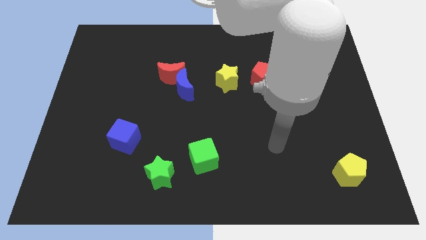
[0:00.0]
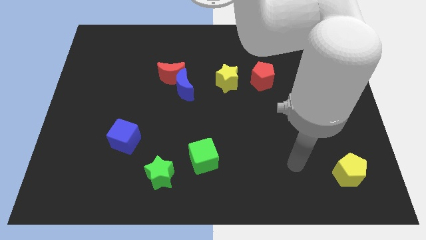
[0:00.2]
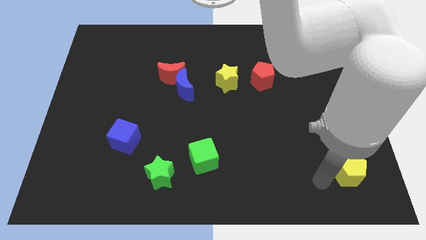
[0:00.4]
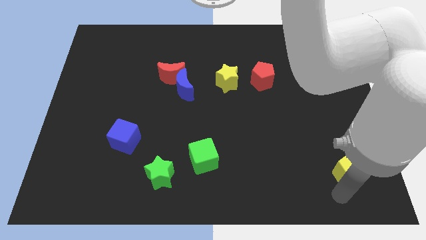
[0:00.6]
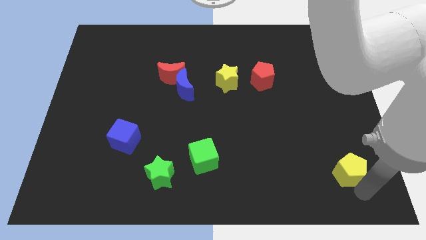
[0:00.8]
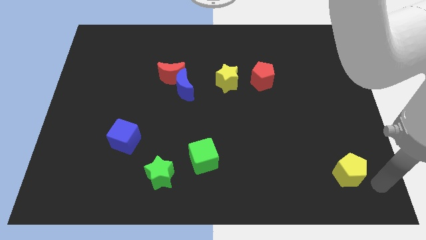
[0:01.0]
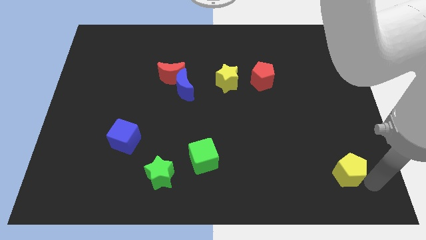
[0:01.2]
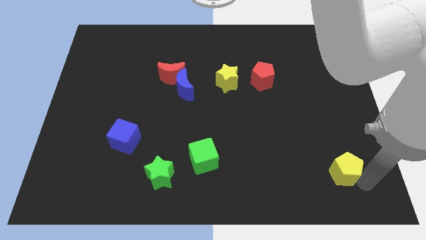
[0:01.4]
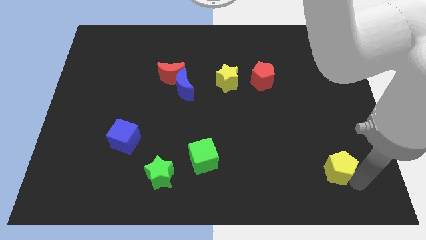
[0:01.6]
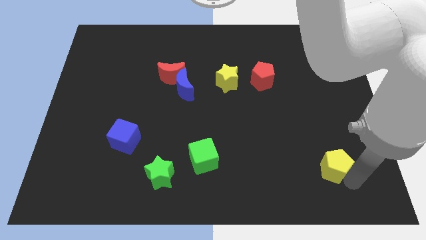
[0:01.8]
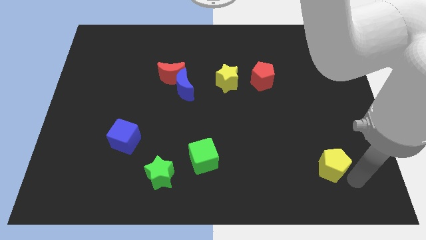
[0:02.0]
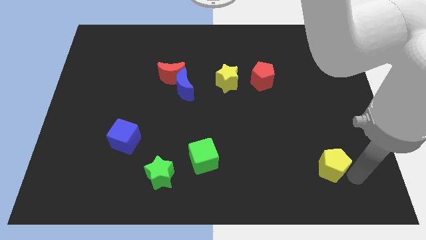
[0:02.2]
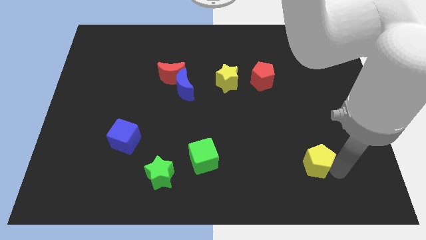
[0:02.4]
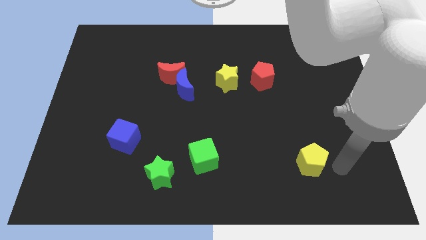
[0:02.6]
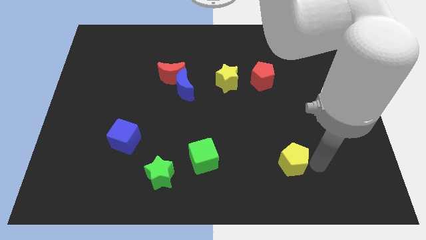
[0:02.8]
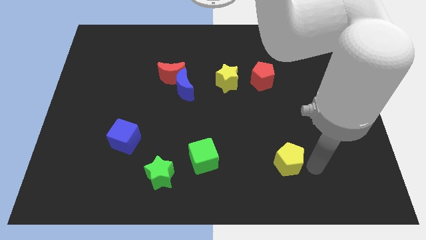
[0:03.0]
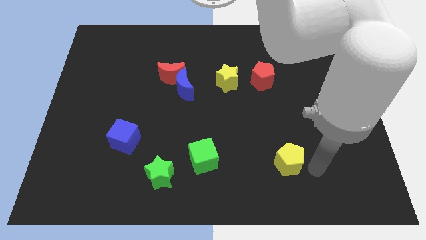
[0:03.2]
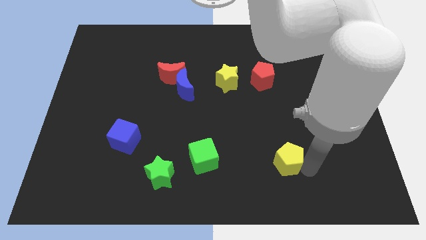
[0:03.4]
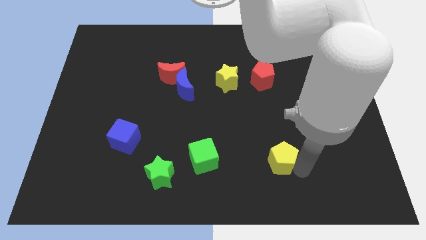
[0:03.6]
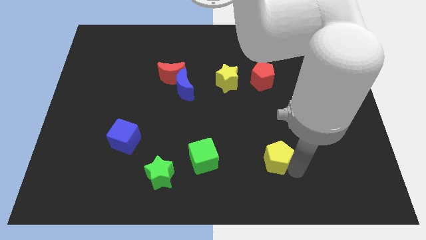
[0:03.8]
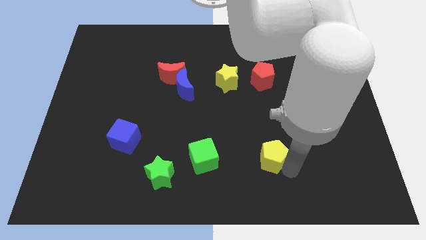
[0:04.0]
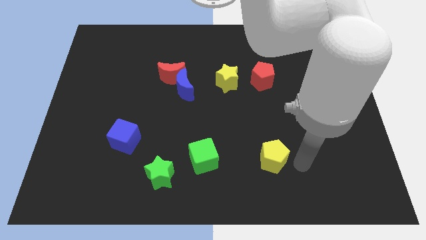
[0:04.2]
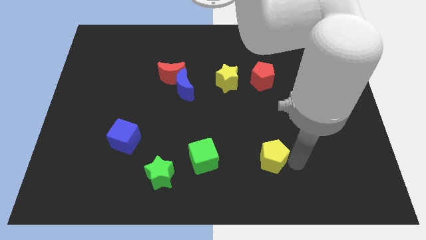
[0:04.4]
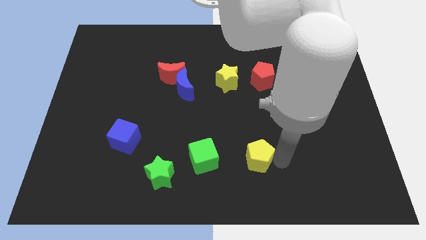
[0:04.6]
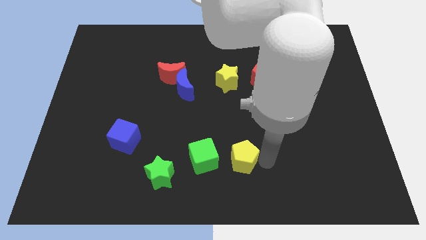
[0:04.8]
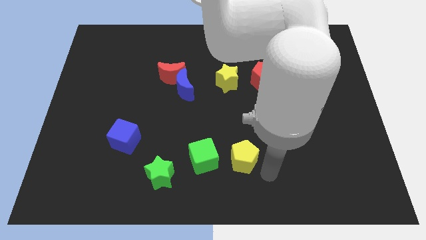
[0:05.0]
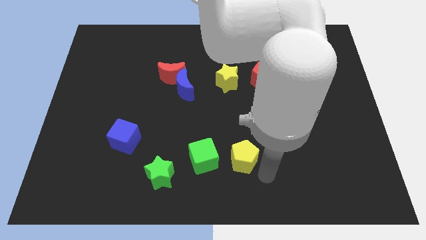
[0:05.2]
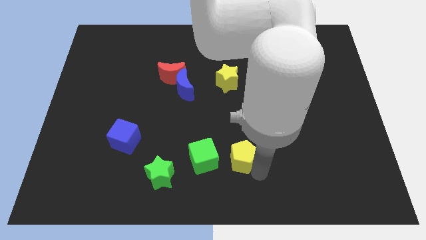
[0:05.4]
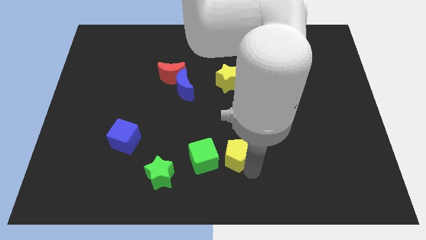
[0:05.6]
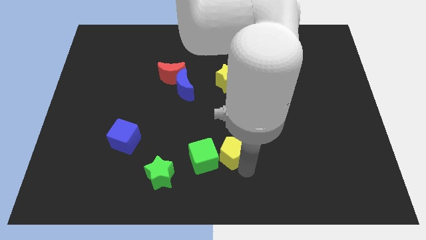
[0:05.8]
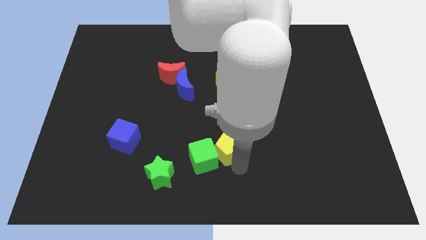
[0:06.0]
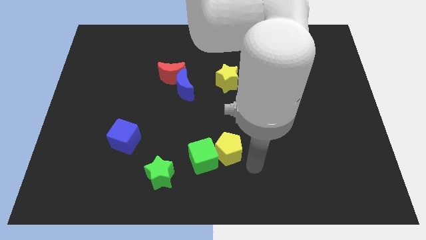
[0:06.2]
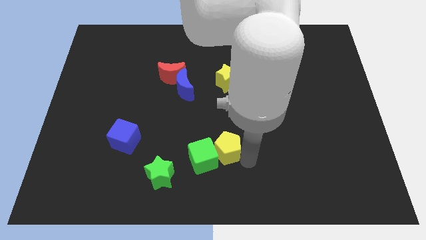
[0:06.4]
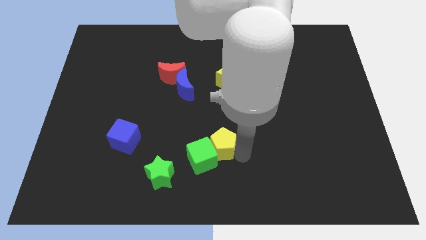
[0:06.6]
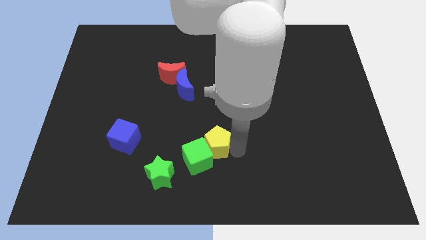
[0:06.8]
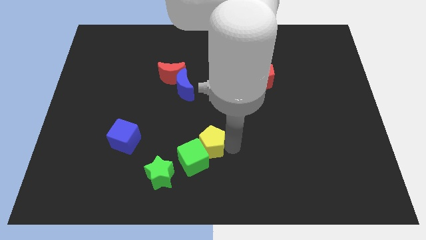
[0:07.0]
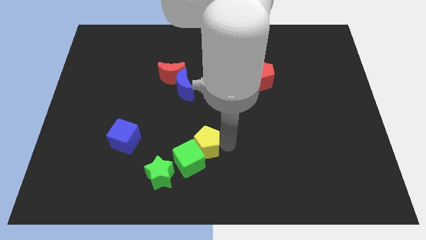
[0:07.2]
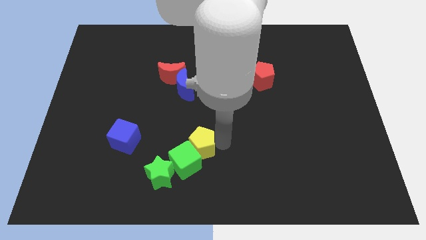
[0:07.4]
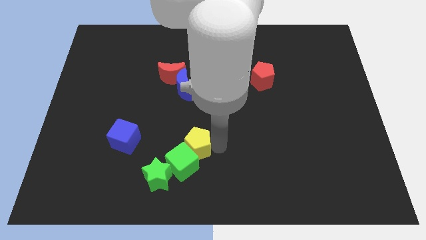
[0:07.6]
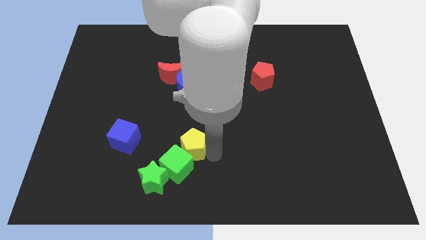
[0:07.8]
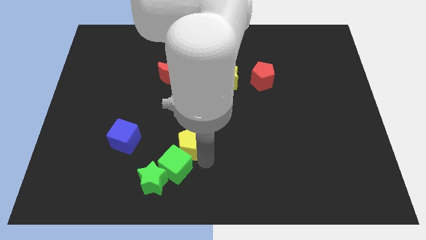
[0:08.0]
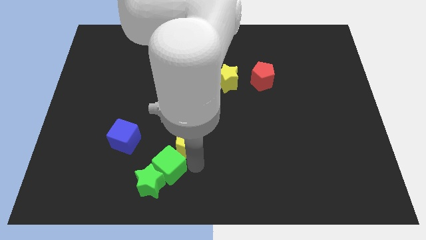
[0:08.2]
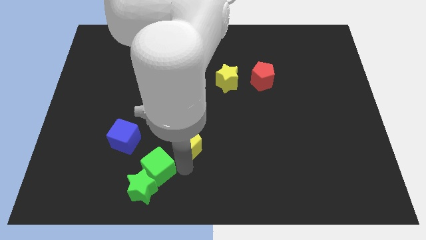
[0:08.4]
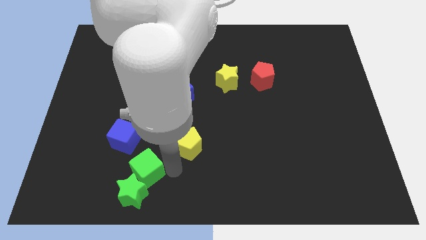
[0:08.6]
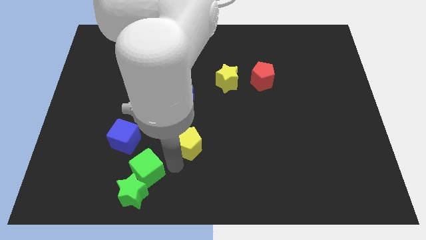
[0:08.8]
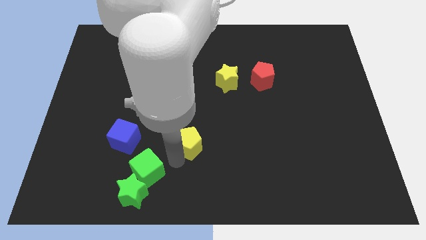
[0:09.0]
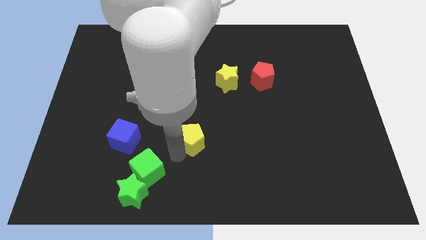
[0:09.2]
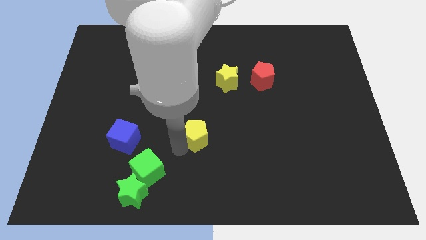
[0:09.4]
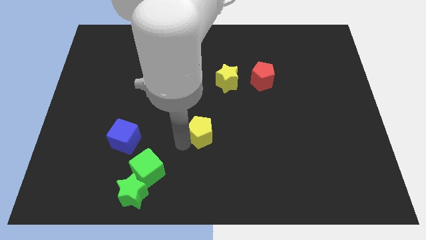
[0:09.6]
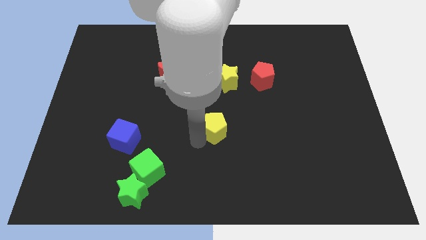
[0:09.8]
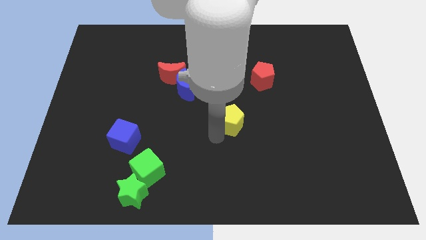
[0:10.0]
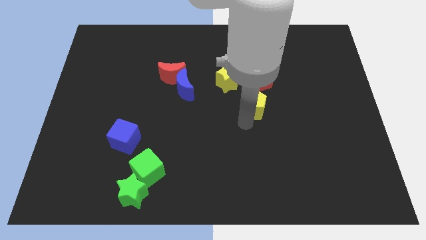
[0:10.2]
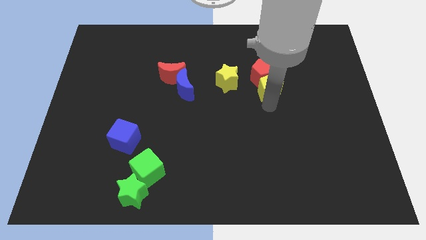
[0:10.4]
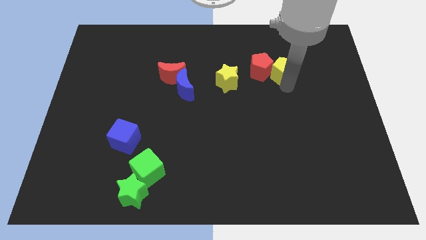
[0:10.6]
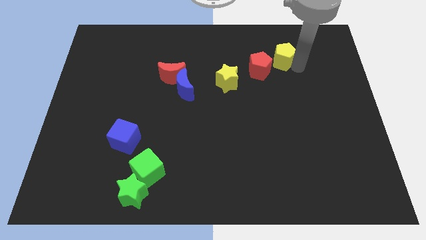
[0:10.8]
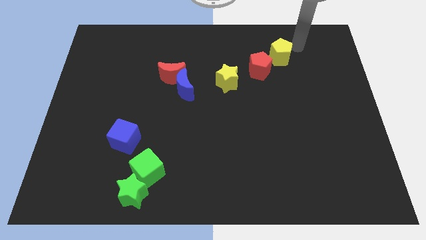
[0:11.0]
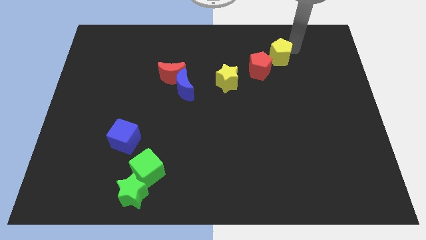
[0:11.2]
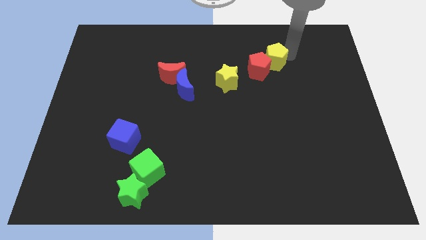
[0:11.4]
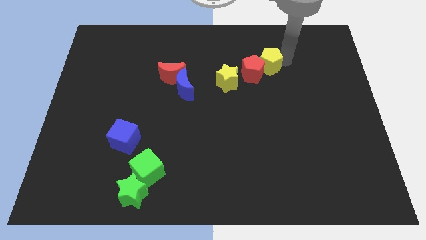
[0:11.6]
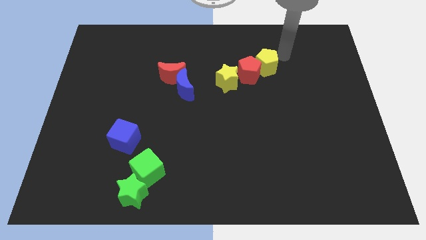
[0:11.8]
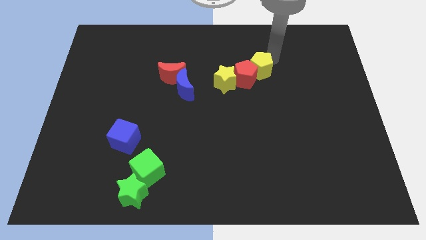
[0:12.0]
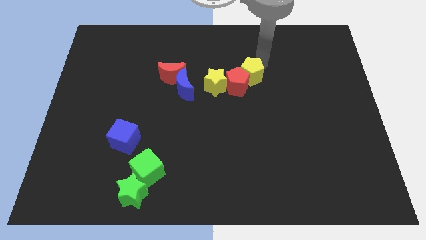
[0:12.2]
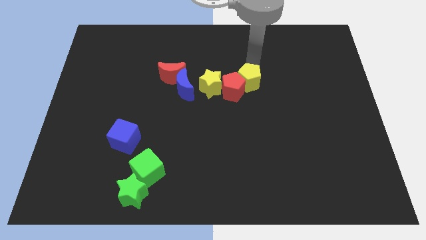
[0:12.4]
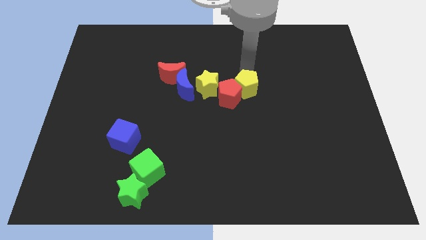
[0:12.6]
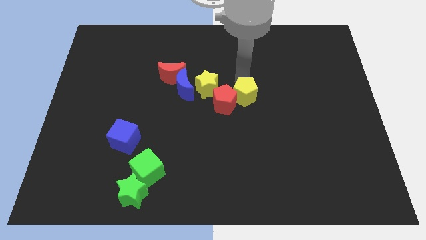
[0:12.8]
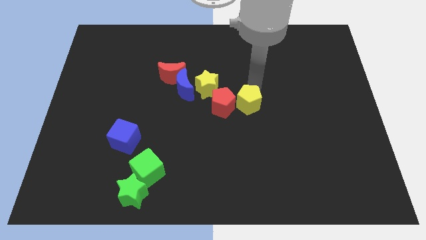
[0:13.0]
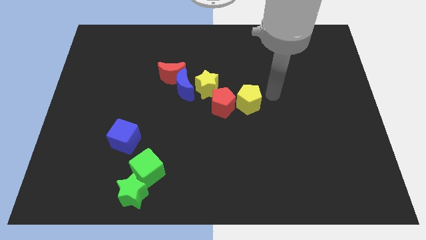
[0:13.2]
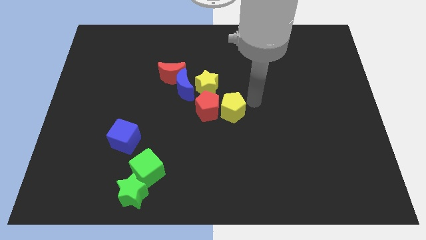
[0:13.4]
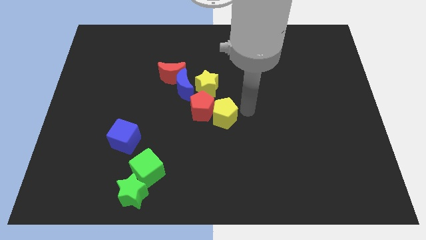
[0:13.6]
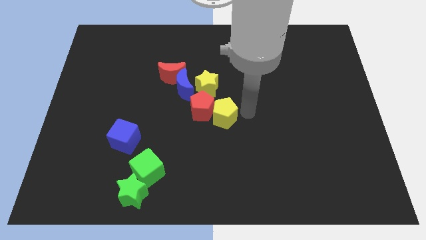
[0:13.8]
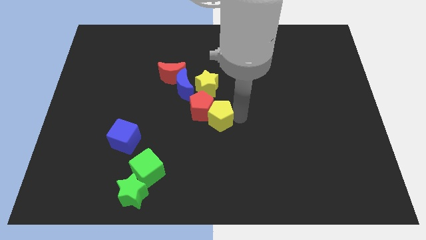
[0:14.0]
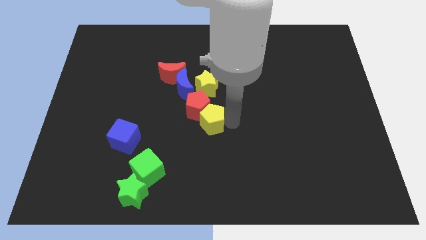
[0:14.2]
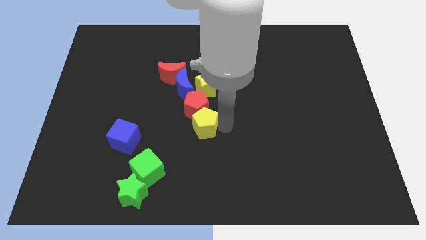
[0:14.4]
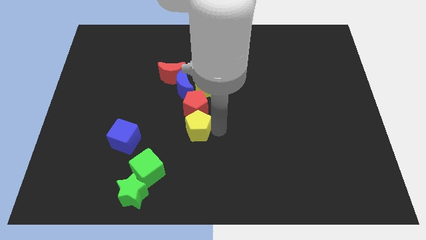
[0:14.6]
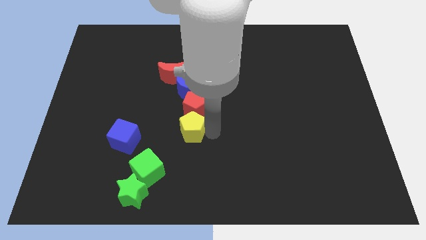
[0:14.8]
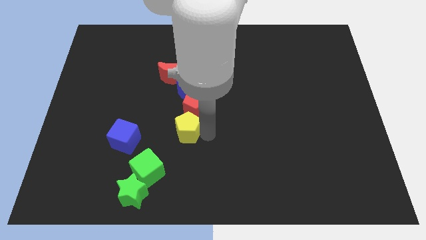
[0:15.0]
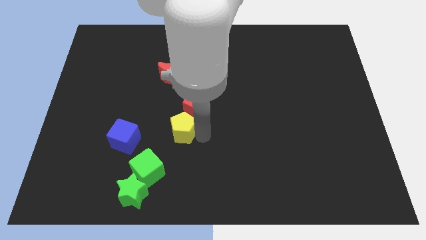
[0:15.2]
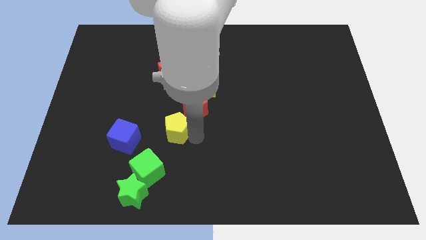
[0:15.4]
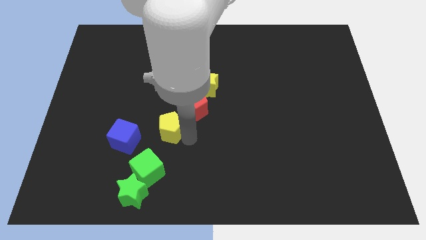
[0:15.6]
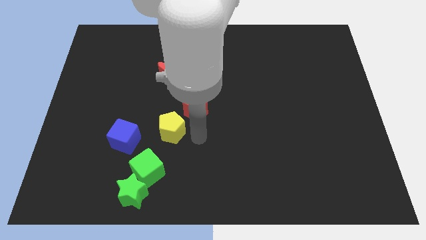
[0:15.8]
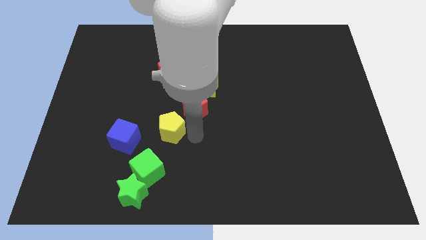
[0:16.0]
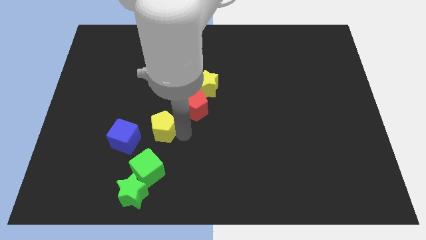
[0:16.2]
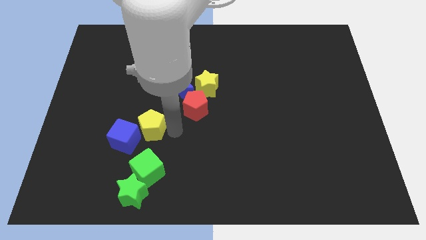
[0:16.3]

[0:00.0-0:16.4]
move the yellow pentagon to the blue cube
